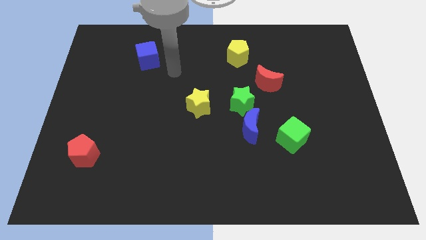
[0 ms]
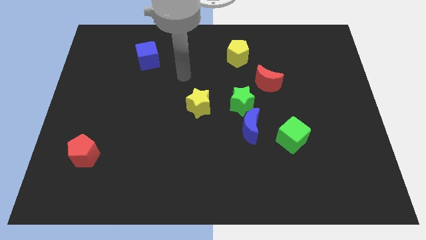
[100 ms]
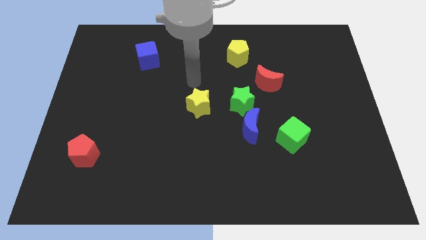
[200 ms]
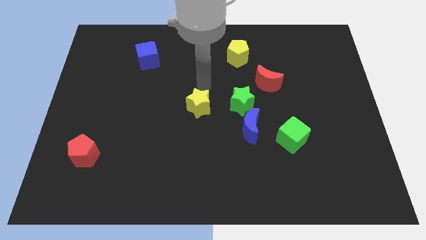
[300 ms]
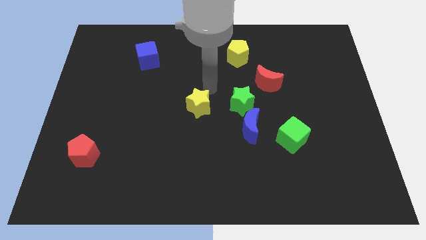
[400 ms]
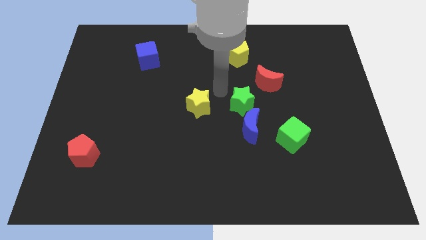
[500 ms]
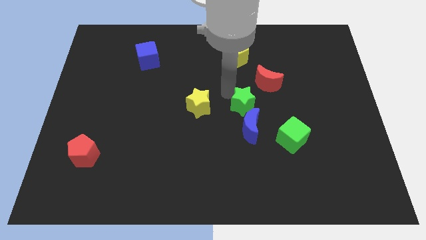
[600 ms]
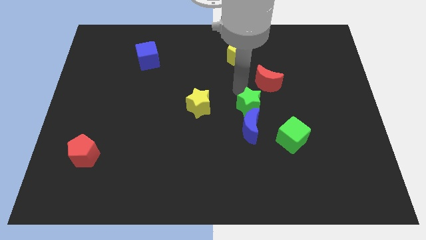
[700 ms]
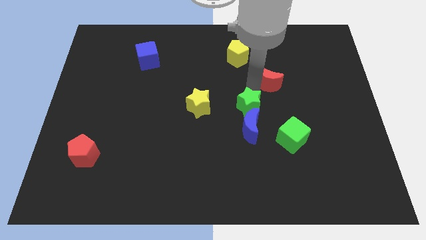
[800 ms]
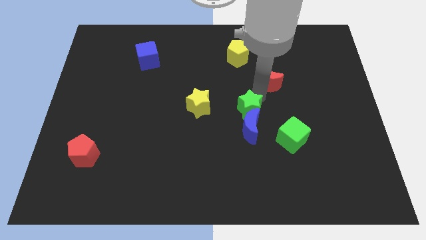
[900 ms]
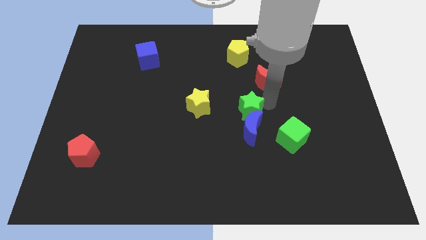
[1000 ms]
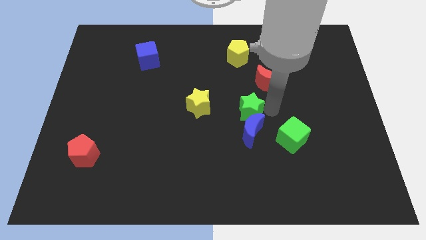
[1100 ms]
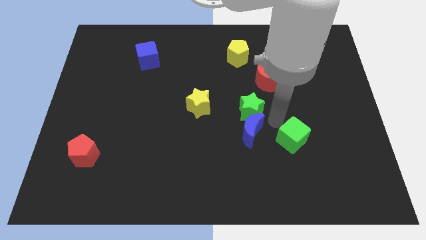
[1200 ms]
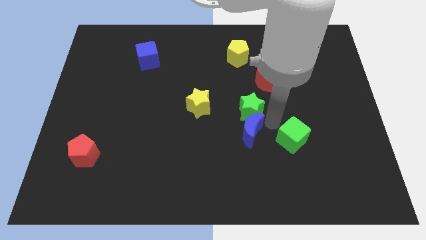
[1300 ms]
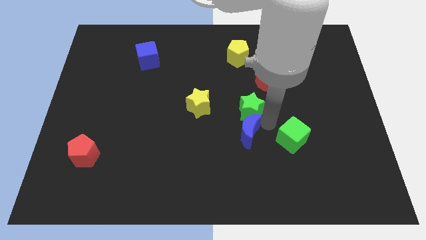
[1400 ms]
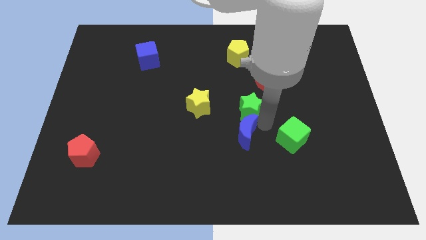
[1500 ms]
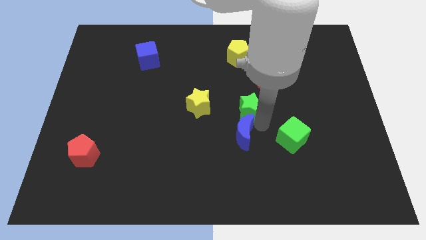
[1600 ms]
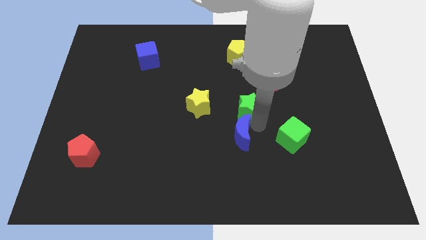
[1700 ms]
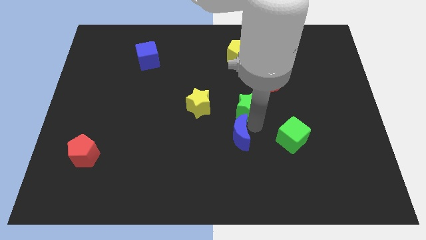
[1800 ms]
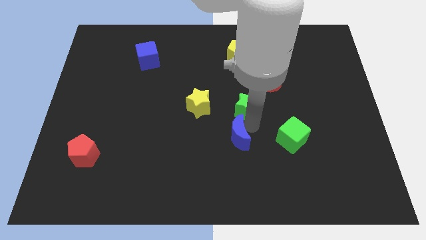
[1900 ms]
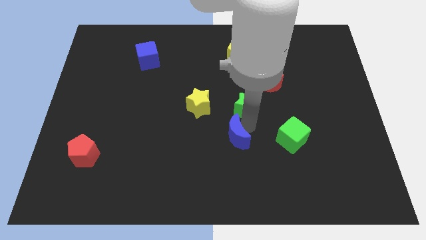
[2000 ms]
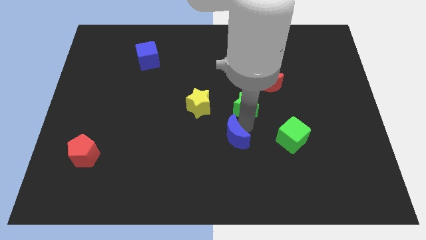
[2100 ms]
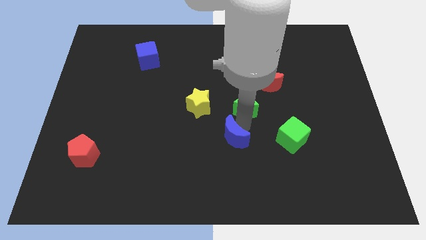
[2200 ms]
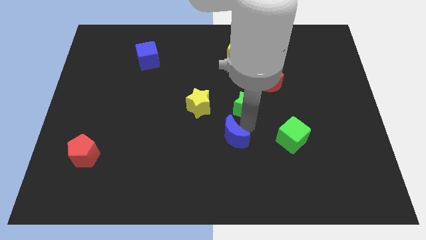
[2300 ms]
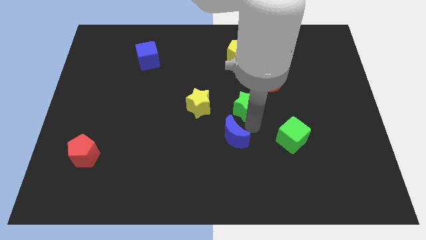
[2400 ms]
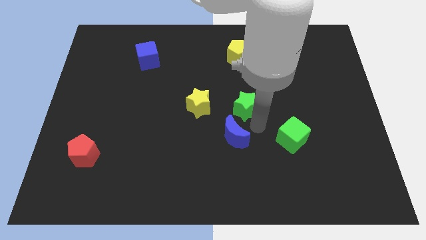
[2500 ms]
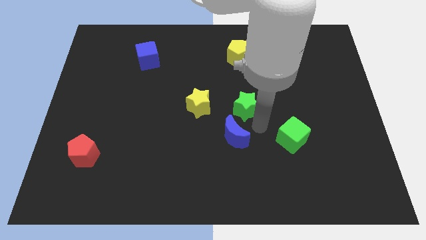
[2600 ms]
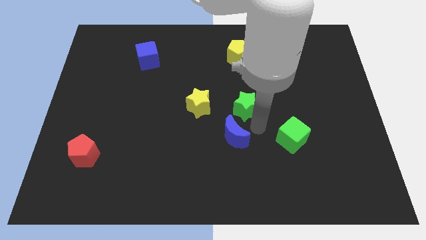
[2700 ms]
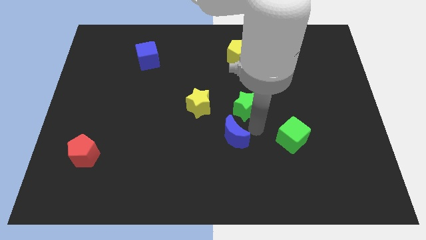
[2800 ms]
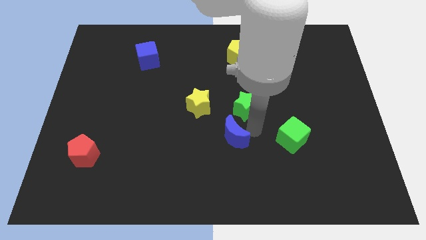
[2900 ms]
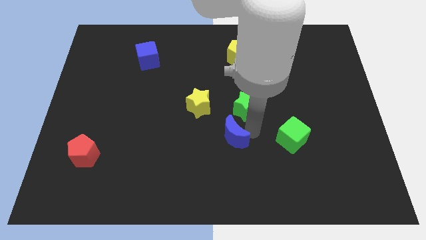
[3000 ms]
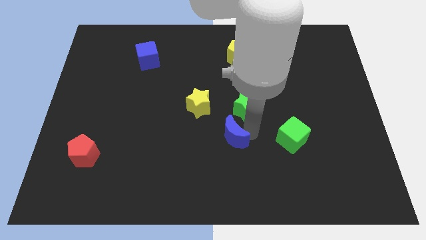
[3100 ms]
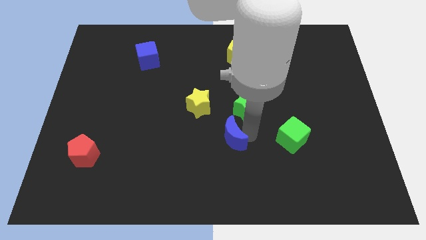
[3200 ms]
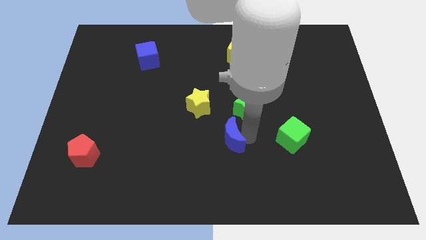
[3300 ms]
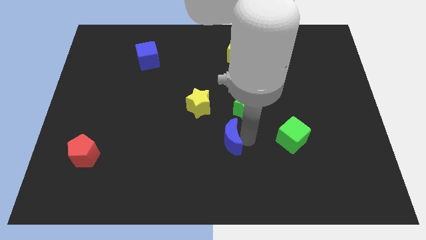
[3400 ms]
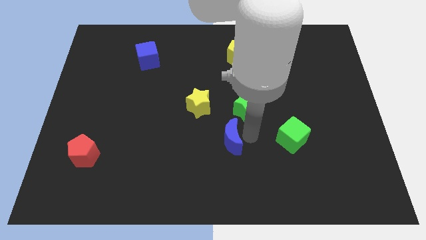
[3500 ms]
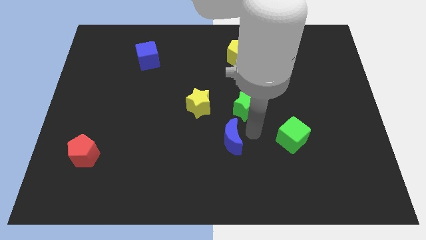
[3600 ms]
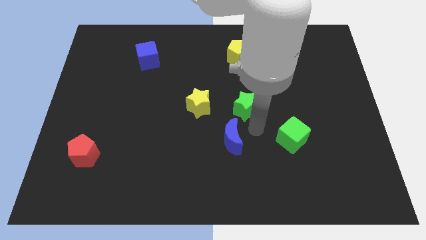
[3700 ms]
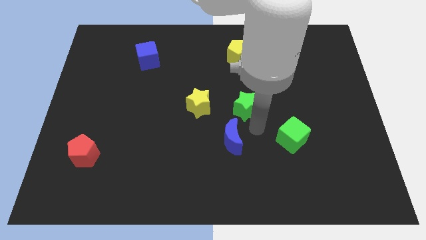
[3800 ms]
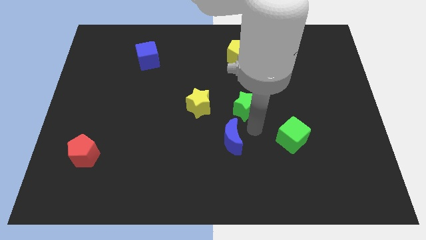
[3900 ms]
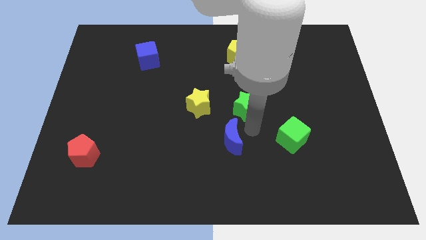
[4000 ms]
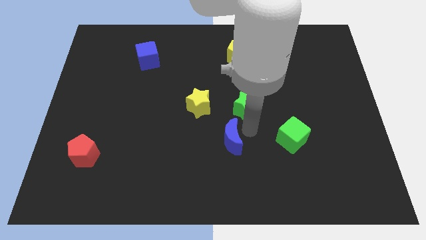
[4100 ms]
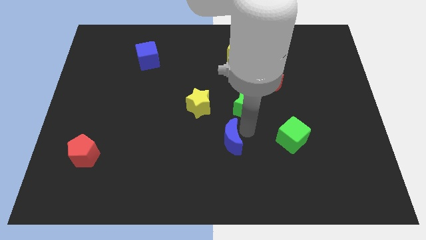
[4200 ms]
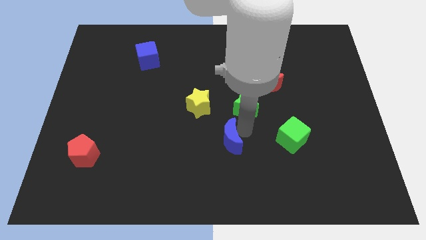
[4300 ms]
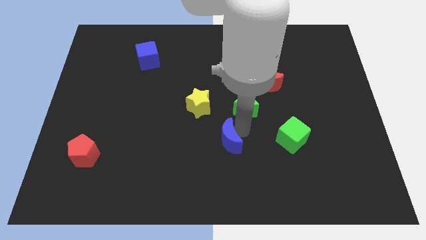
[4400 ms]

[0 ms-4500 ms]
move the blue moon away from the green star and green cube

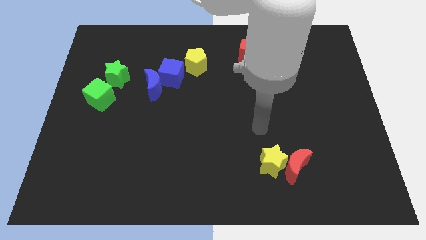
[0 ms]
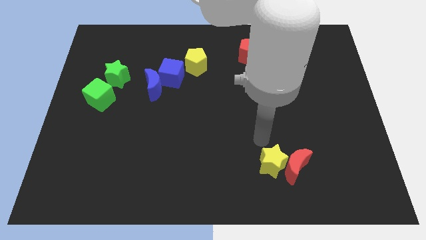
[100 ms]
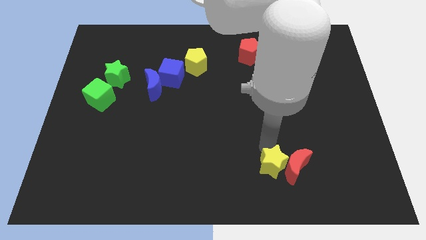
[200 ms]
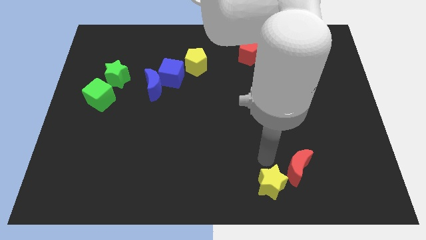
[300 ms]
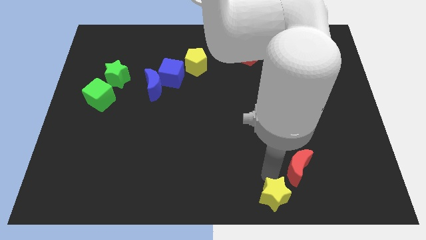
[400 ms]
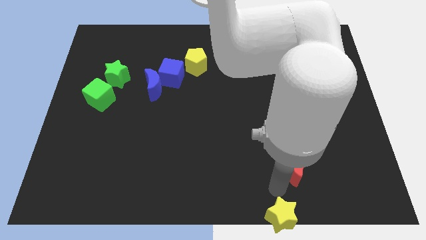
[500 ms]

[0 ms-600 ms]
separate the red moon from the yellow star

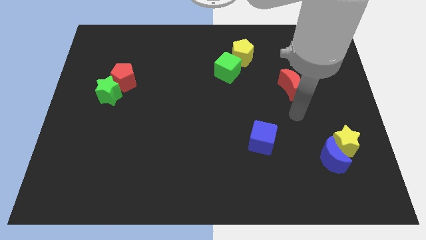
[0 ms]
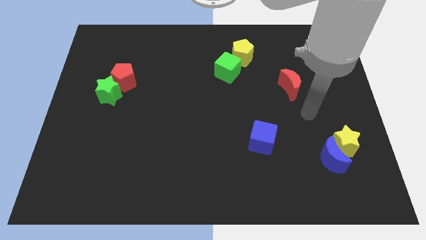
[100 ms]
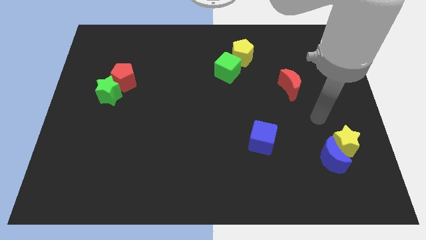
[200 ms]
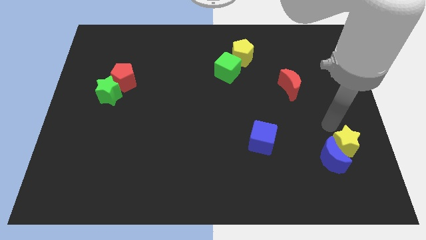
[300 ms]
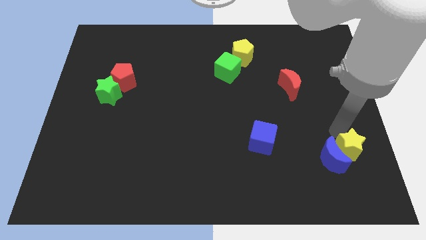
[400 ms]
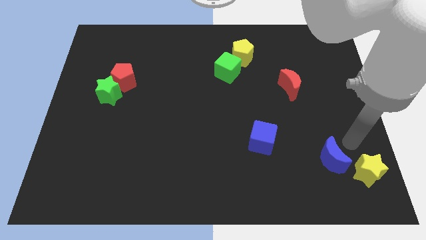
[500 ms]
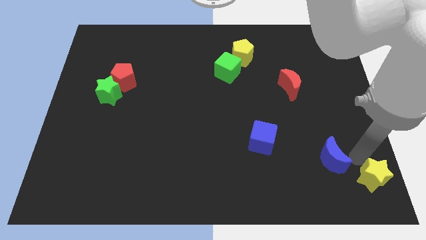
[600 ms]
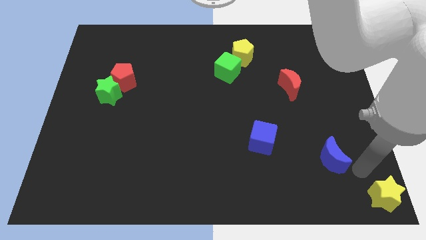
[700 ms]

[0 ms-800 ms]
separate the blue moon from the yellow star

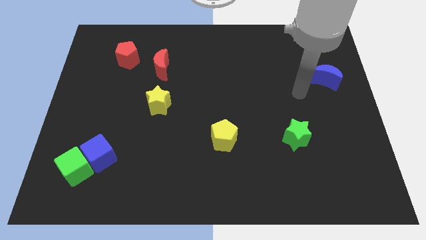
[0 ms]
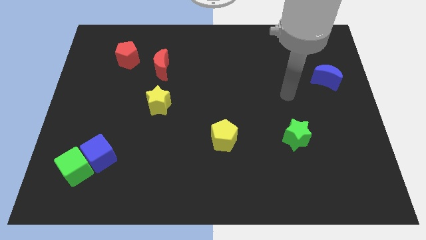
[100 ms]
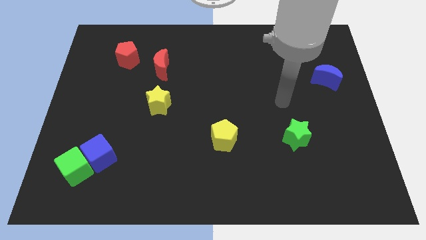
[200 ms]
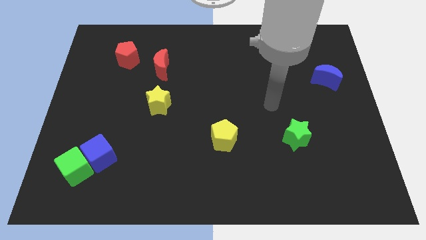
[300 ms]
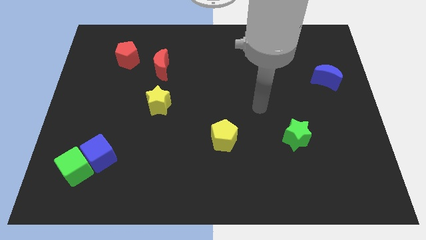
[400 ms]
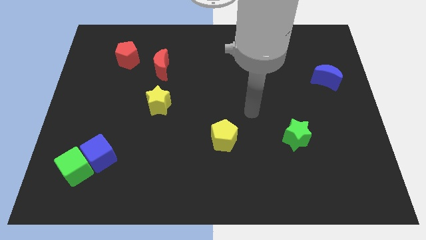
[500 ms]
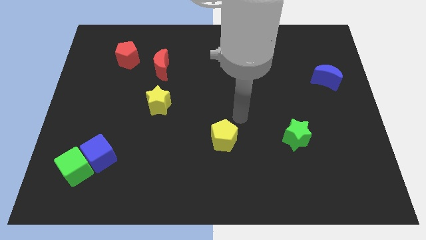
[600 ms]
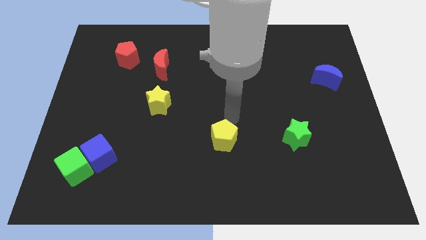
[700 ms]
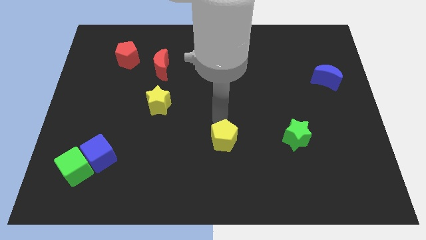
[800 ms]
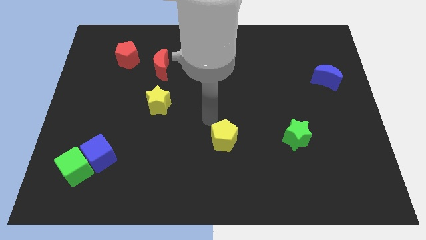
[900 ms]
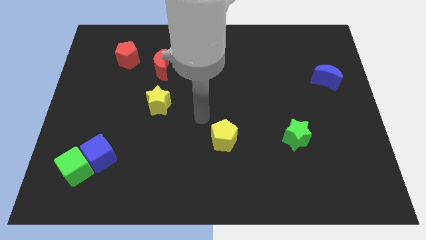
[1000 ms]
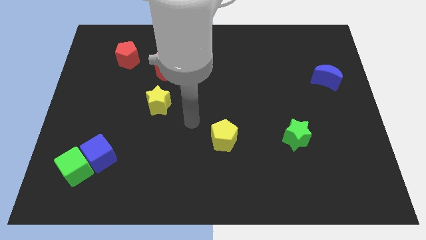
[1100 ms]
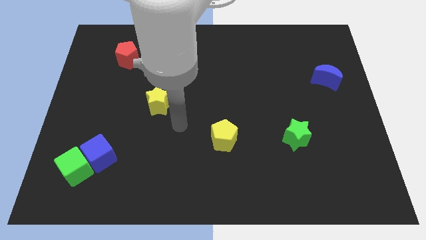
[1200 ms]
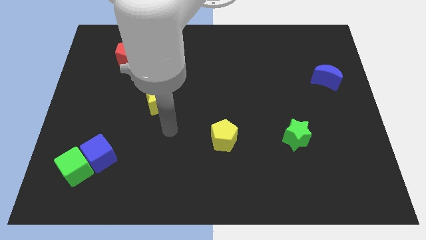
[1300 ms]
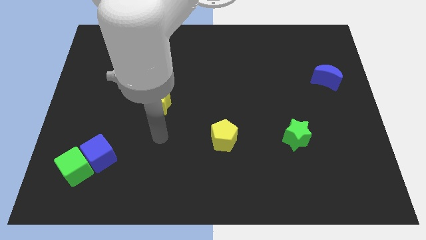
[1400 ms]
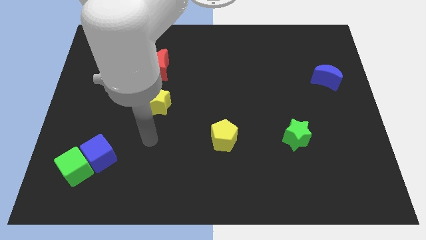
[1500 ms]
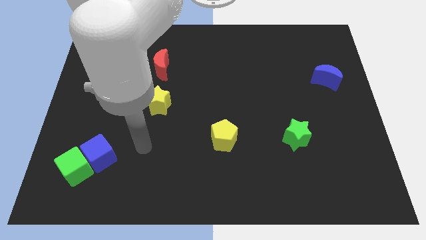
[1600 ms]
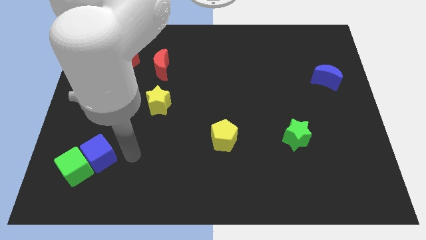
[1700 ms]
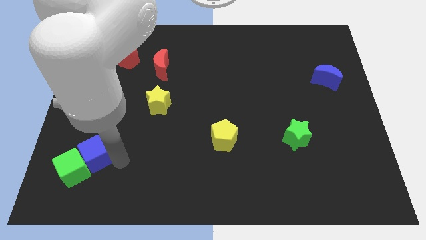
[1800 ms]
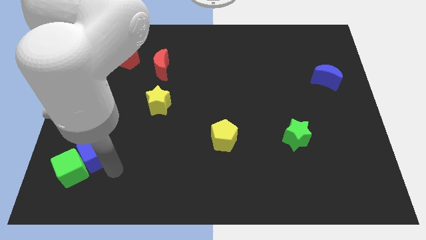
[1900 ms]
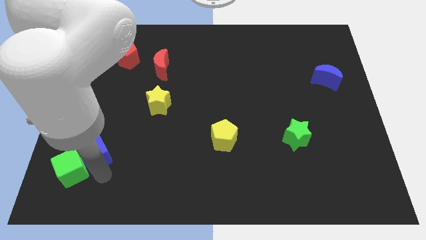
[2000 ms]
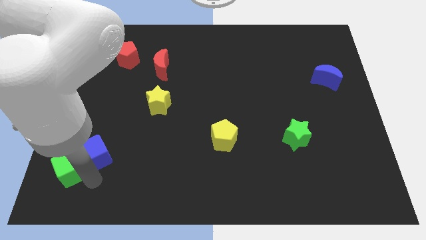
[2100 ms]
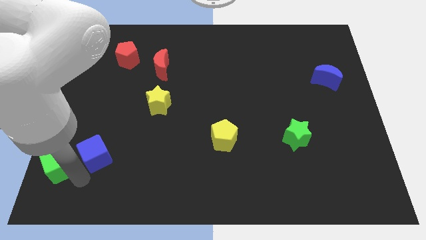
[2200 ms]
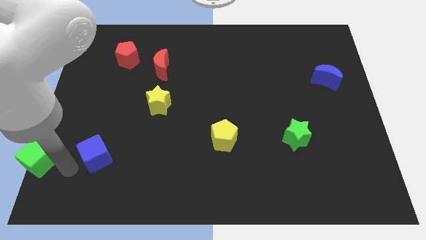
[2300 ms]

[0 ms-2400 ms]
pull the blue cube apart from the green cube

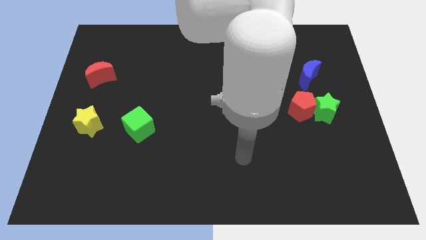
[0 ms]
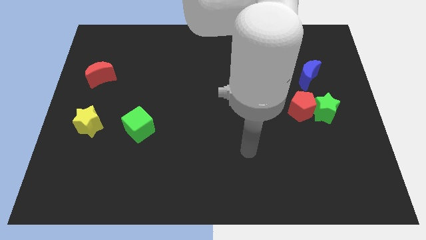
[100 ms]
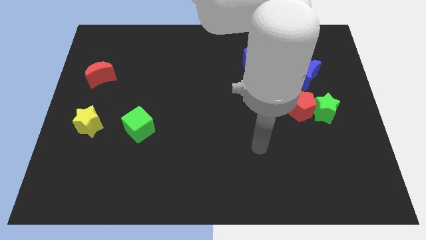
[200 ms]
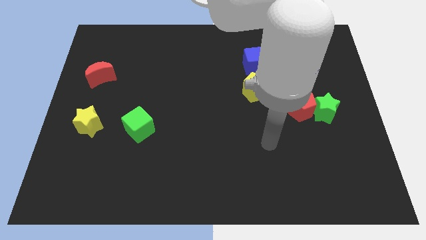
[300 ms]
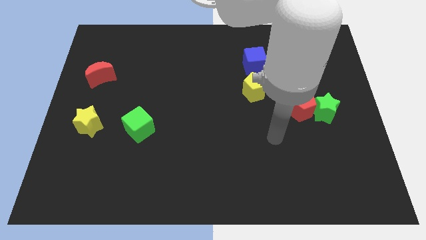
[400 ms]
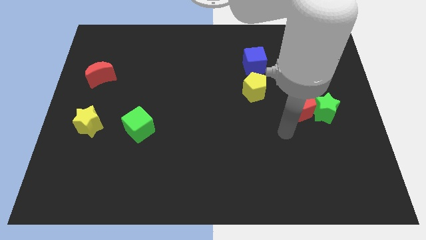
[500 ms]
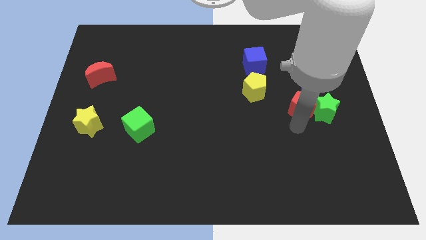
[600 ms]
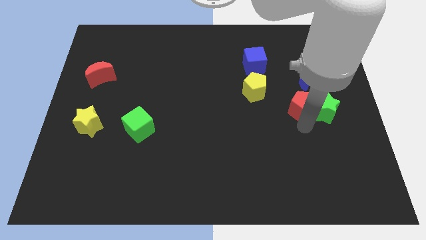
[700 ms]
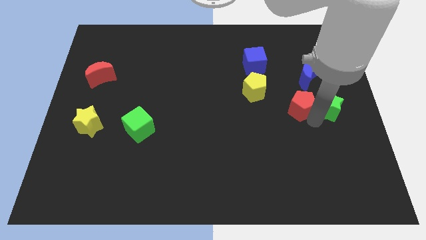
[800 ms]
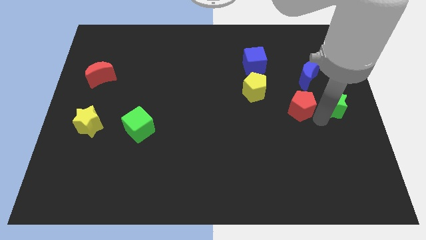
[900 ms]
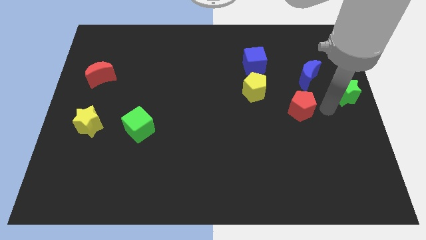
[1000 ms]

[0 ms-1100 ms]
move the red pentagon away from the green star
